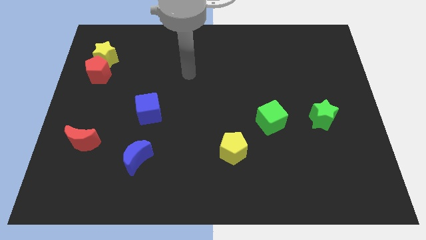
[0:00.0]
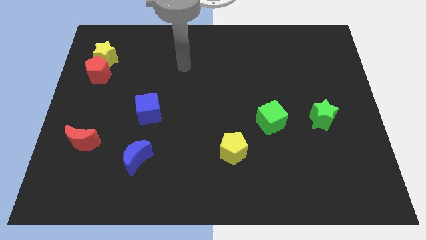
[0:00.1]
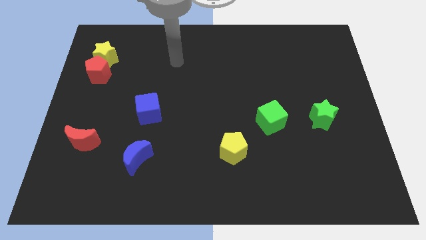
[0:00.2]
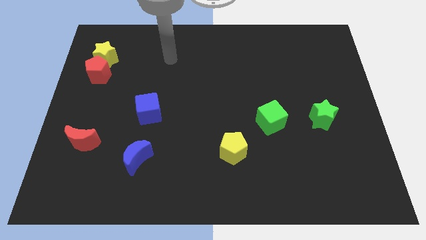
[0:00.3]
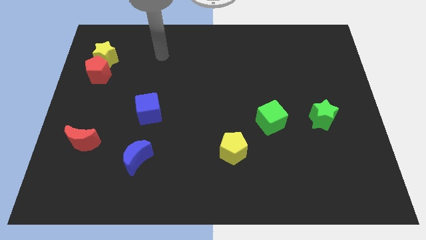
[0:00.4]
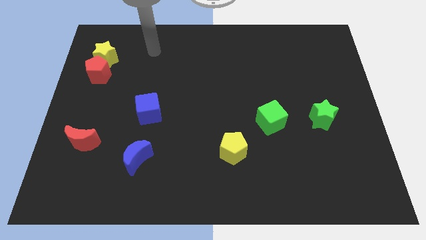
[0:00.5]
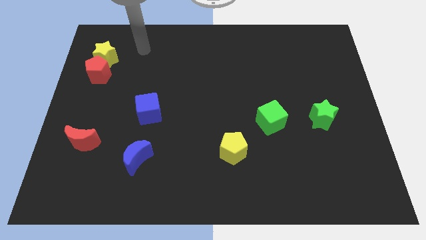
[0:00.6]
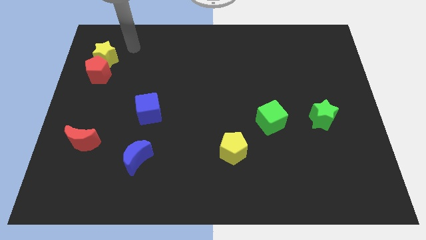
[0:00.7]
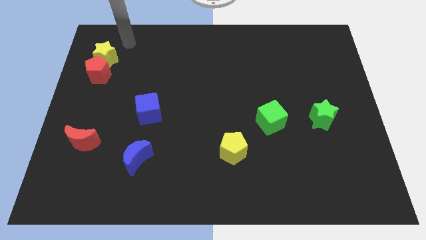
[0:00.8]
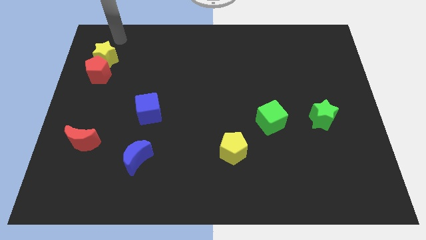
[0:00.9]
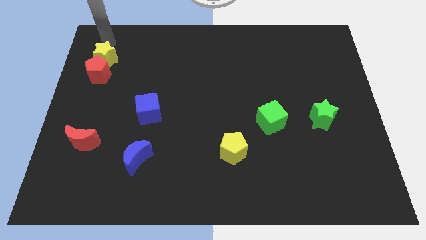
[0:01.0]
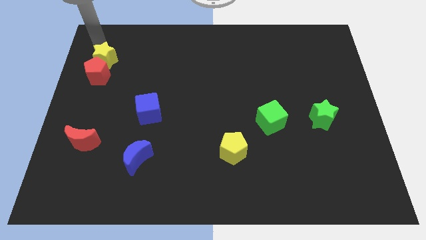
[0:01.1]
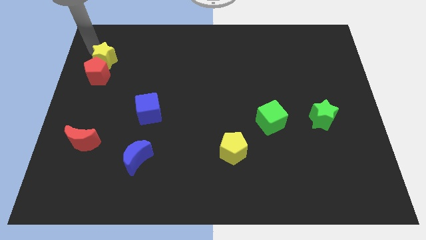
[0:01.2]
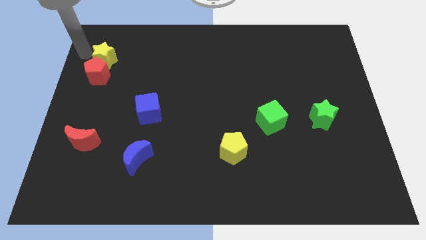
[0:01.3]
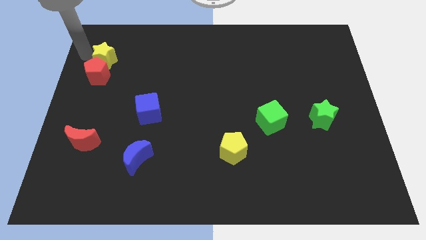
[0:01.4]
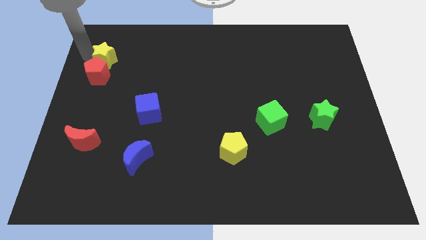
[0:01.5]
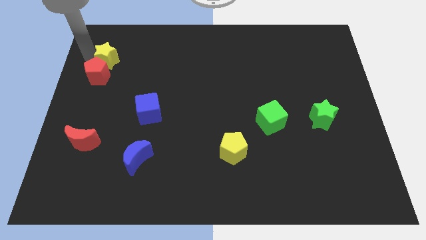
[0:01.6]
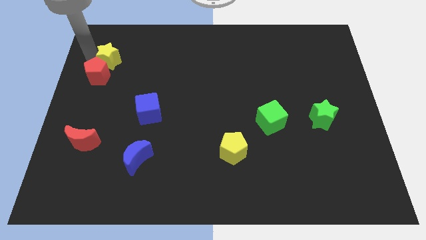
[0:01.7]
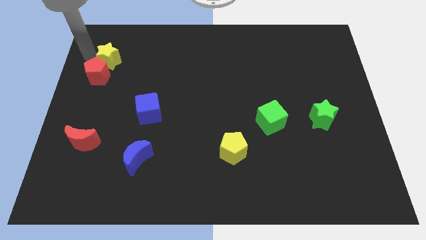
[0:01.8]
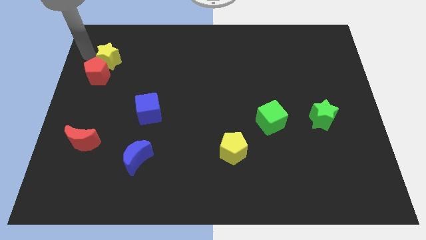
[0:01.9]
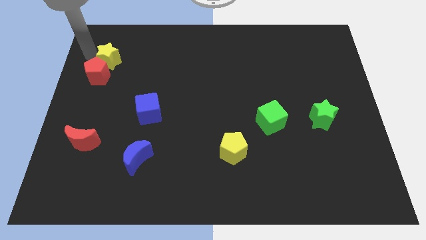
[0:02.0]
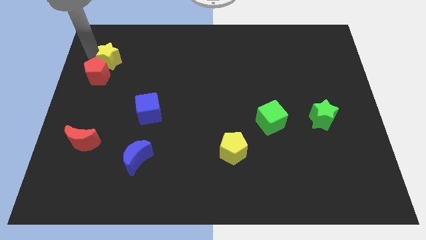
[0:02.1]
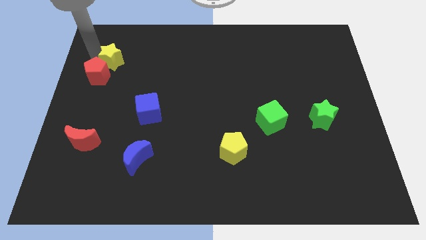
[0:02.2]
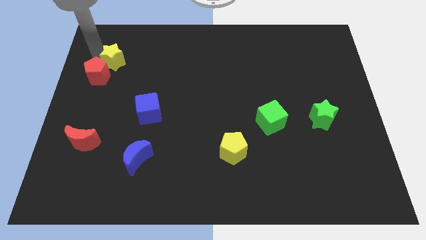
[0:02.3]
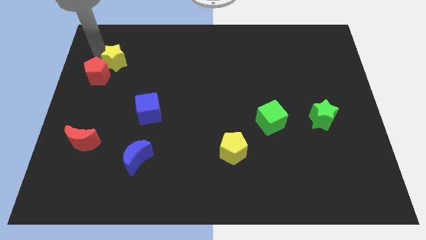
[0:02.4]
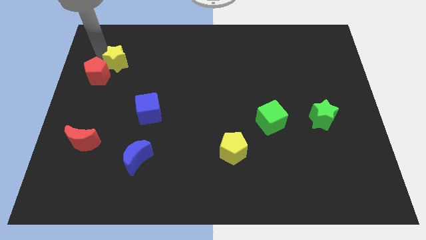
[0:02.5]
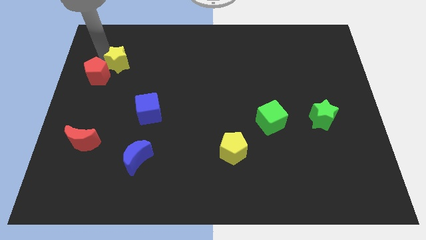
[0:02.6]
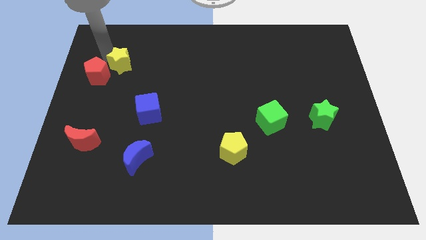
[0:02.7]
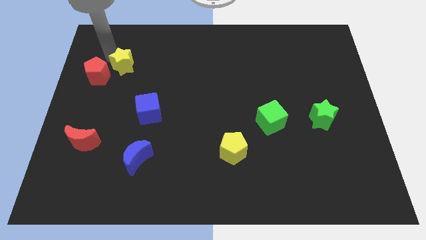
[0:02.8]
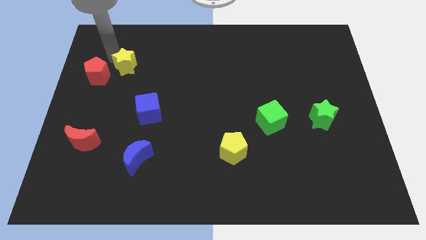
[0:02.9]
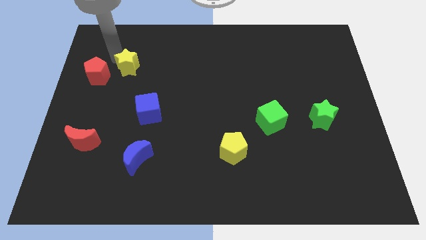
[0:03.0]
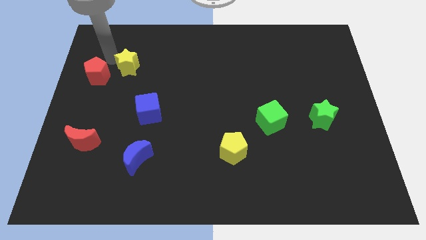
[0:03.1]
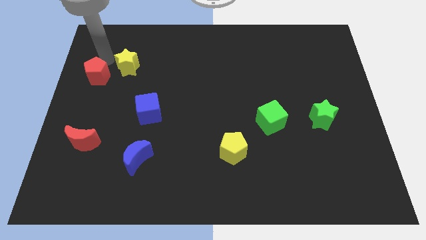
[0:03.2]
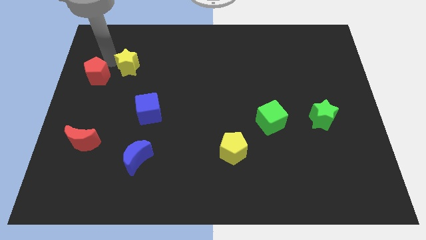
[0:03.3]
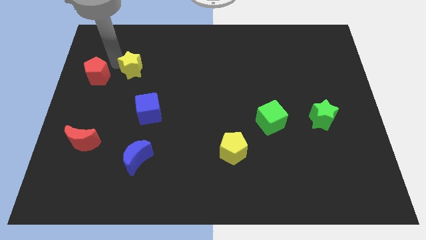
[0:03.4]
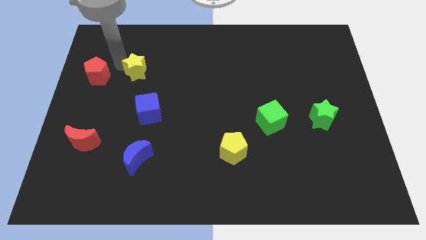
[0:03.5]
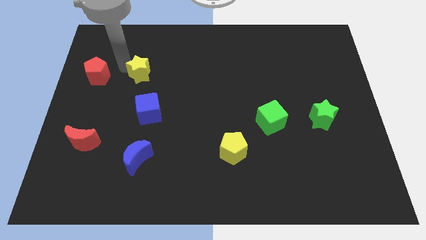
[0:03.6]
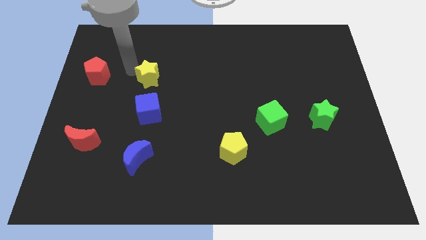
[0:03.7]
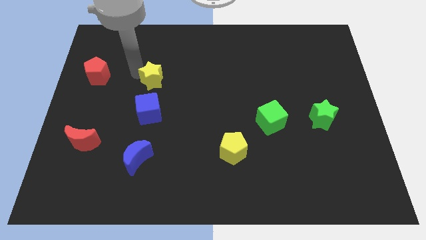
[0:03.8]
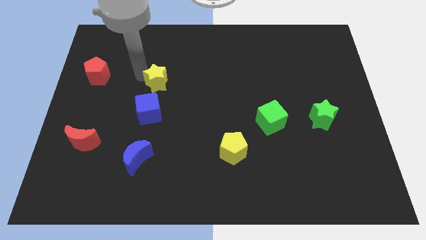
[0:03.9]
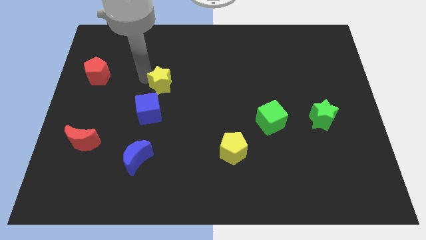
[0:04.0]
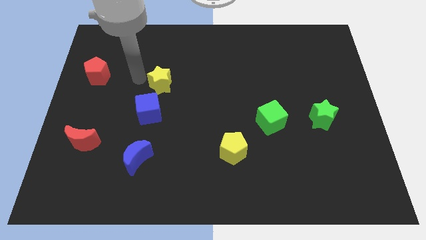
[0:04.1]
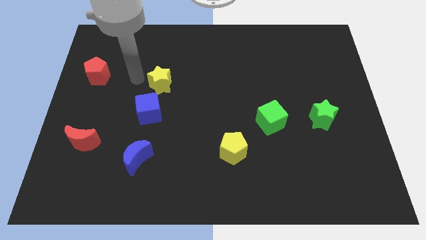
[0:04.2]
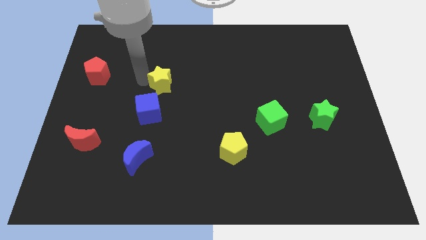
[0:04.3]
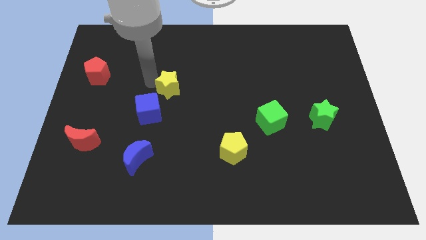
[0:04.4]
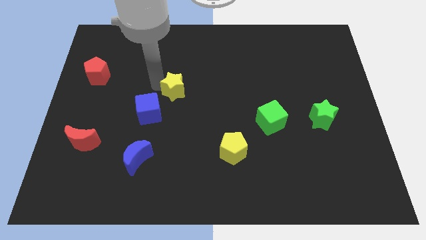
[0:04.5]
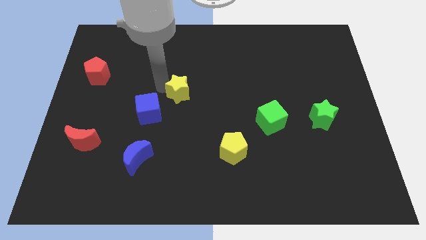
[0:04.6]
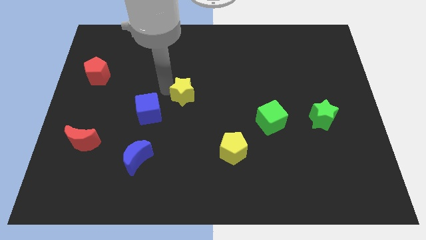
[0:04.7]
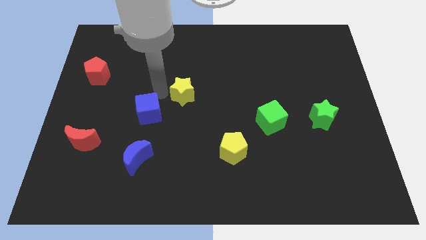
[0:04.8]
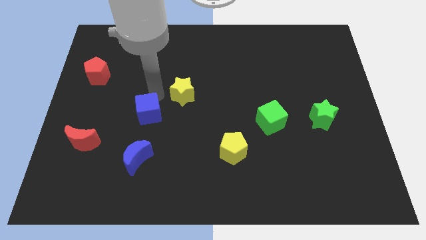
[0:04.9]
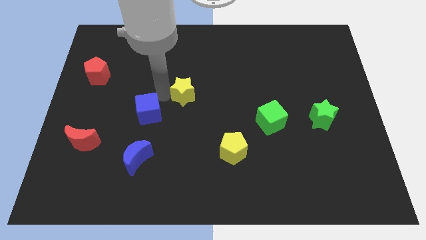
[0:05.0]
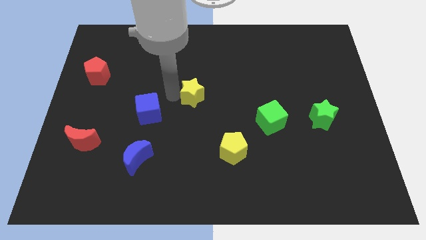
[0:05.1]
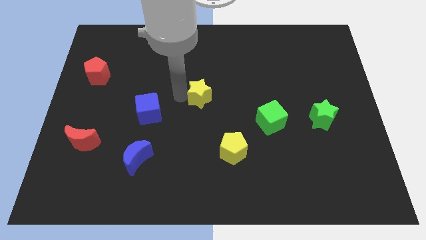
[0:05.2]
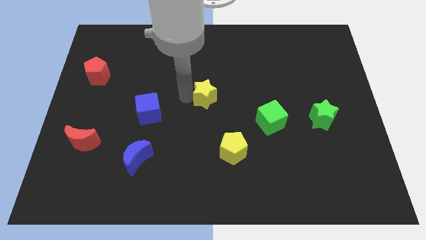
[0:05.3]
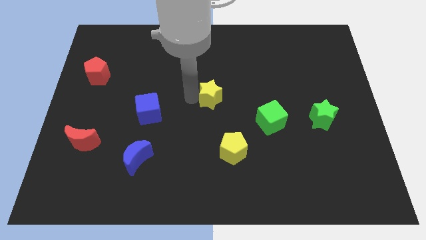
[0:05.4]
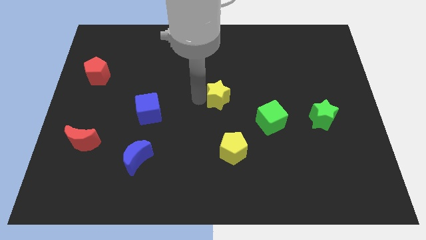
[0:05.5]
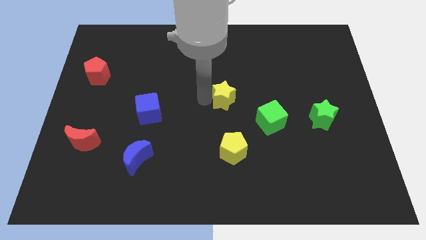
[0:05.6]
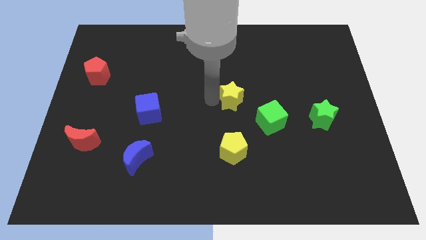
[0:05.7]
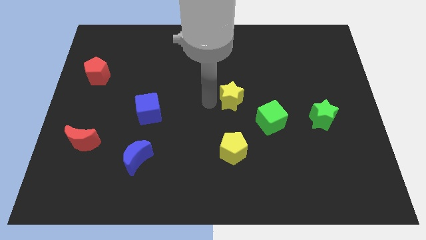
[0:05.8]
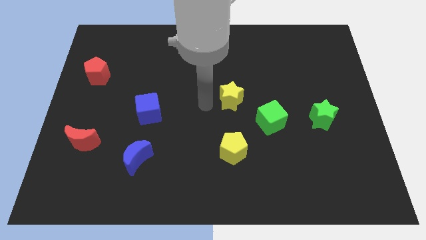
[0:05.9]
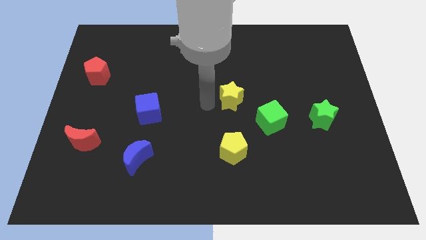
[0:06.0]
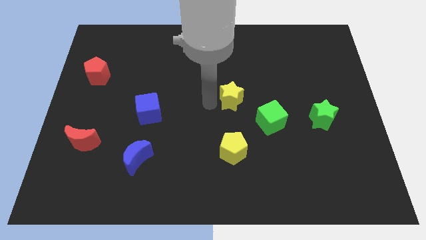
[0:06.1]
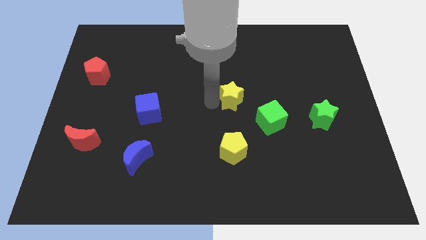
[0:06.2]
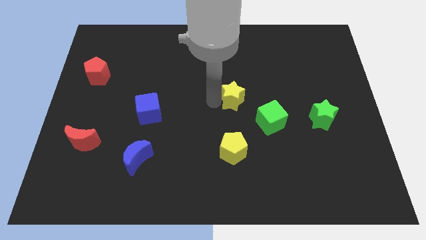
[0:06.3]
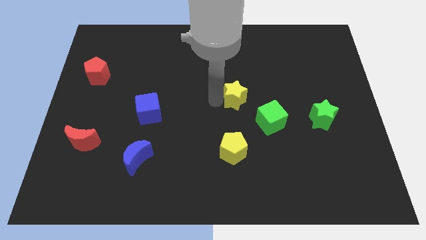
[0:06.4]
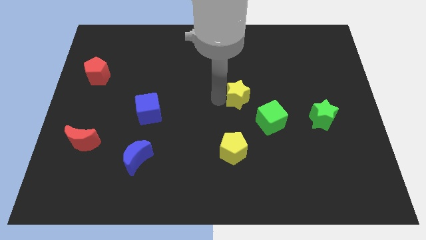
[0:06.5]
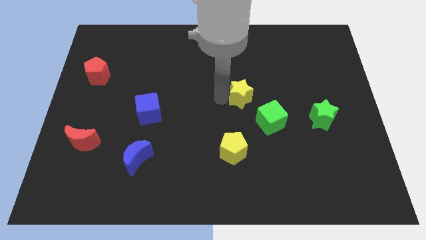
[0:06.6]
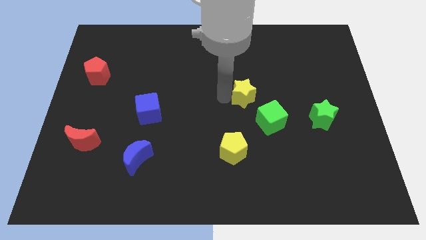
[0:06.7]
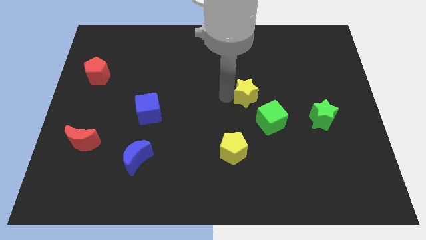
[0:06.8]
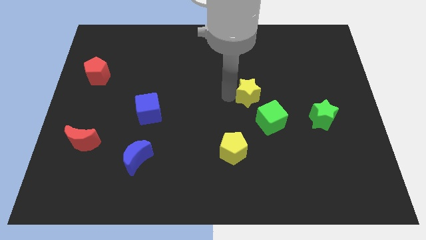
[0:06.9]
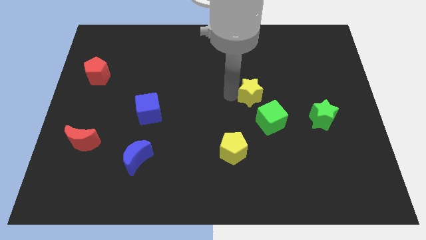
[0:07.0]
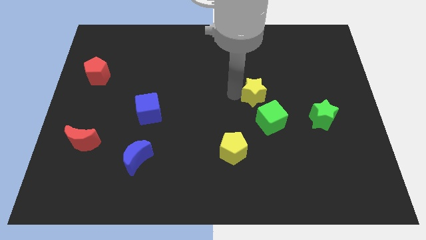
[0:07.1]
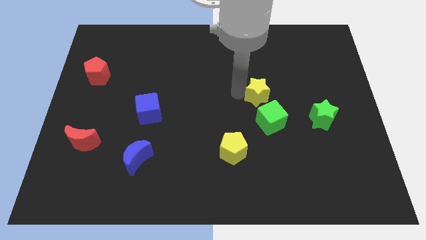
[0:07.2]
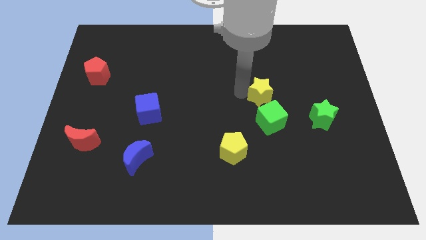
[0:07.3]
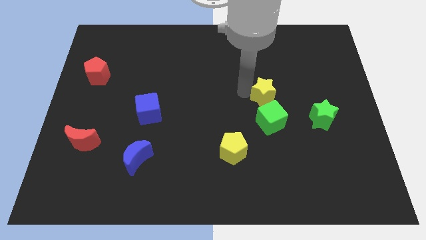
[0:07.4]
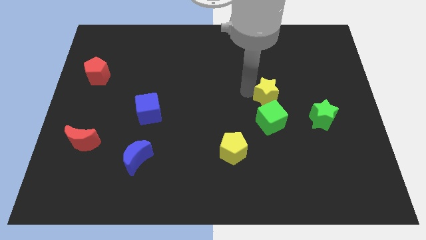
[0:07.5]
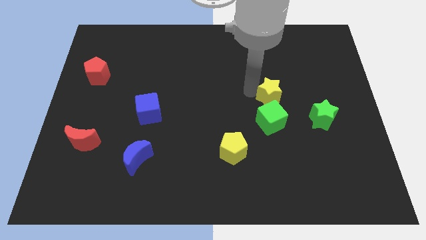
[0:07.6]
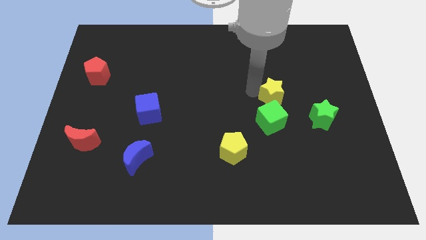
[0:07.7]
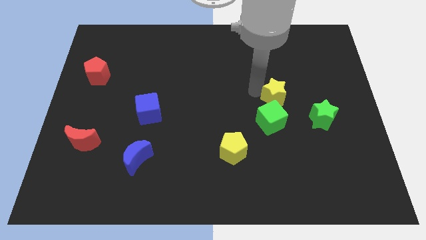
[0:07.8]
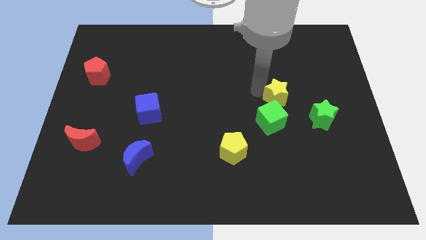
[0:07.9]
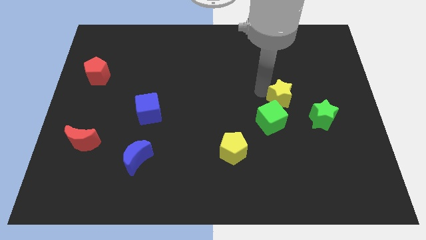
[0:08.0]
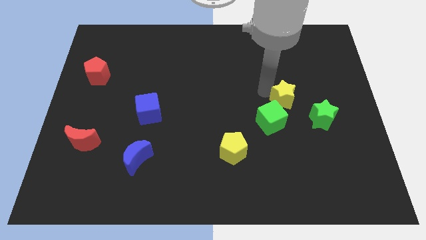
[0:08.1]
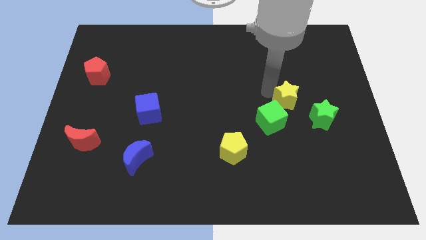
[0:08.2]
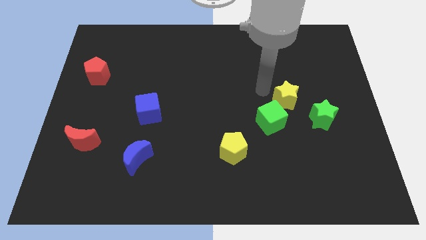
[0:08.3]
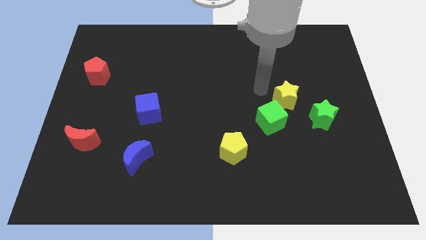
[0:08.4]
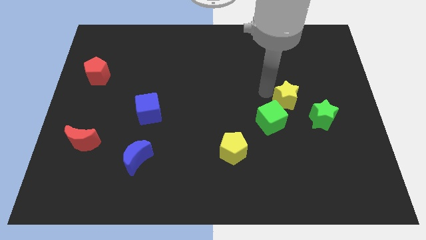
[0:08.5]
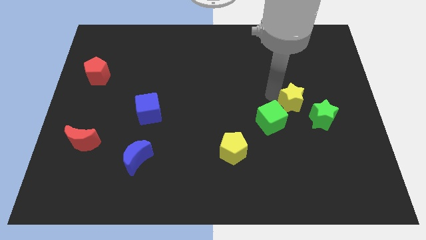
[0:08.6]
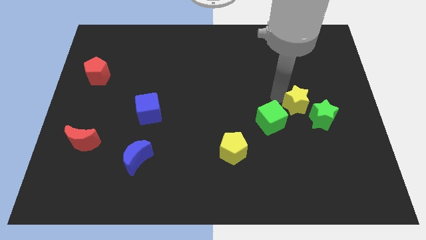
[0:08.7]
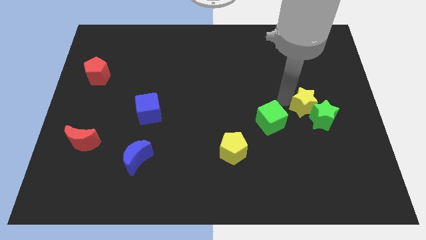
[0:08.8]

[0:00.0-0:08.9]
slide the yellow star to the green star
